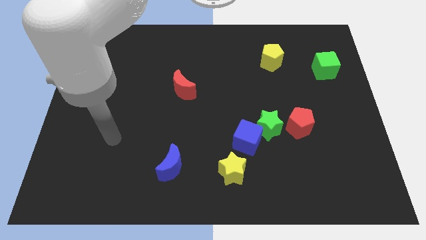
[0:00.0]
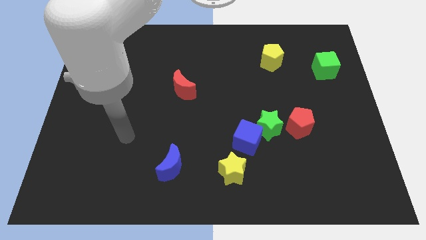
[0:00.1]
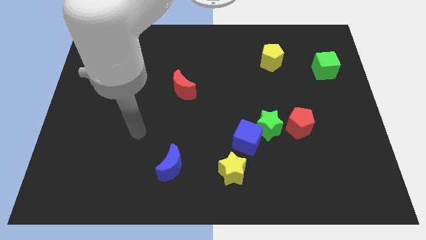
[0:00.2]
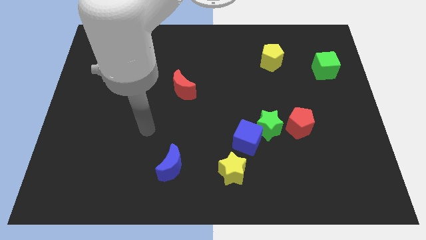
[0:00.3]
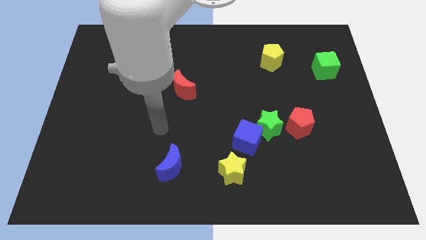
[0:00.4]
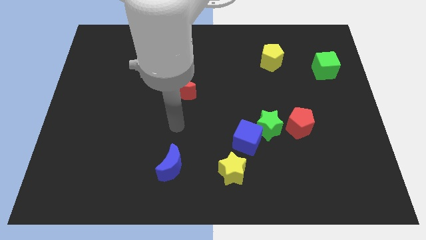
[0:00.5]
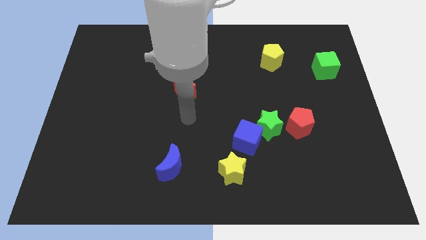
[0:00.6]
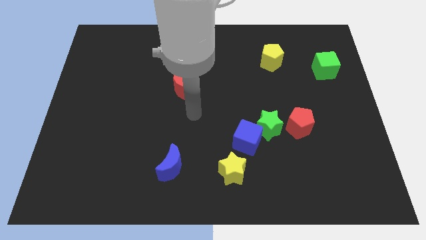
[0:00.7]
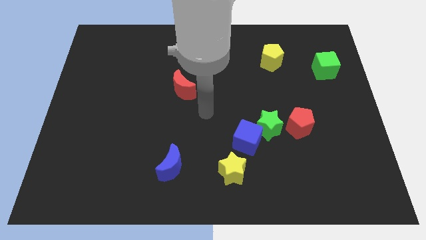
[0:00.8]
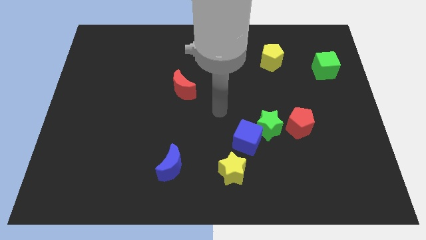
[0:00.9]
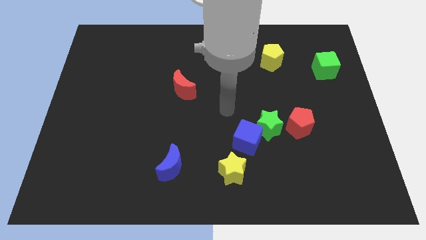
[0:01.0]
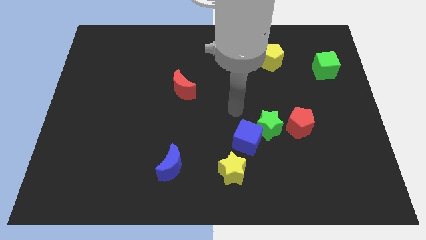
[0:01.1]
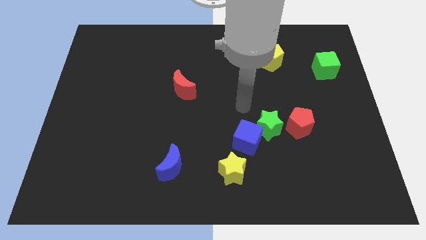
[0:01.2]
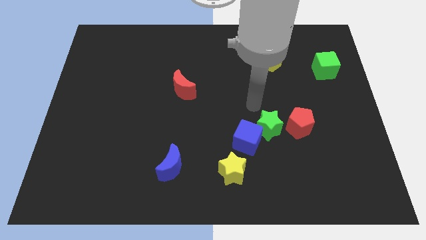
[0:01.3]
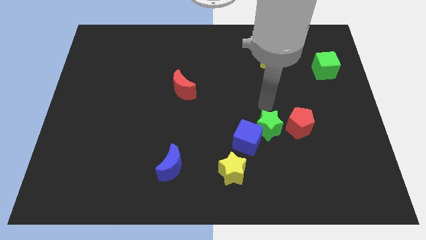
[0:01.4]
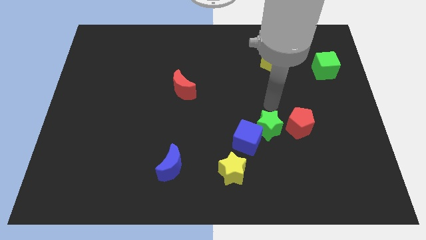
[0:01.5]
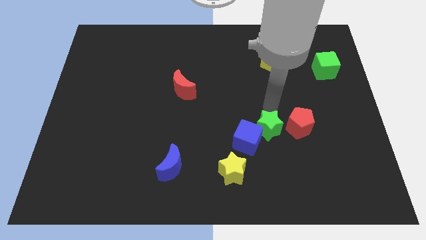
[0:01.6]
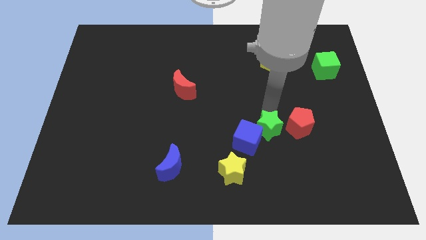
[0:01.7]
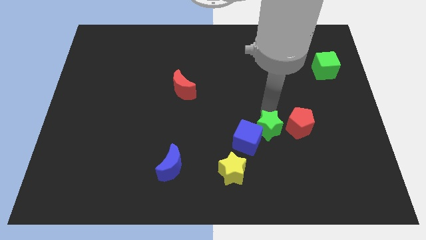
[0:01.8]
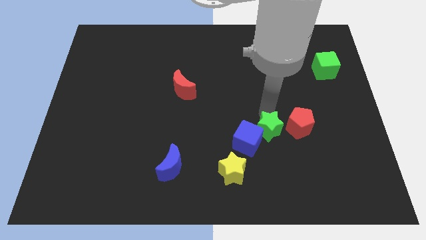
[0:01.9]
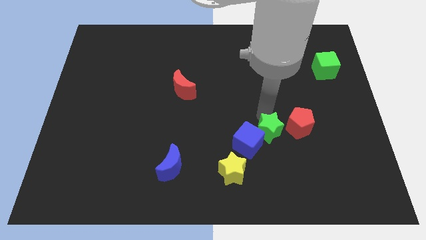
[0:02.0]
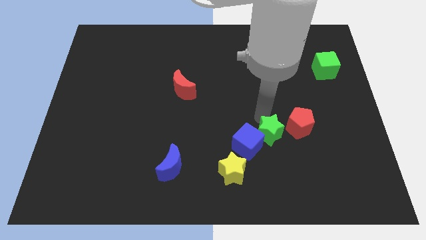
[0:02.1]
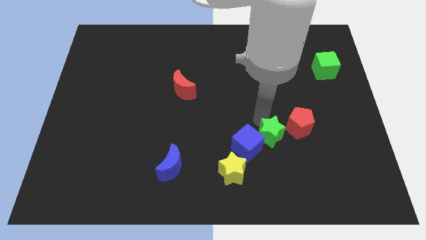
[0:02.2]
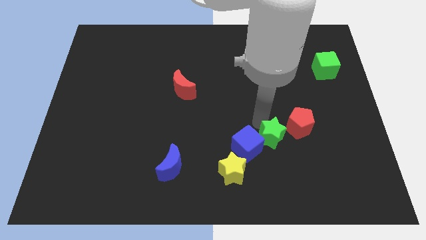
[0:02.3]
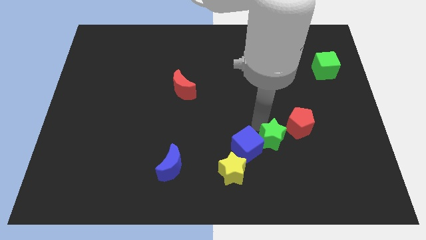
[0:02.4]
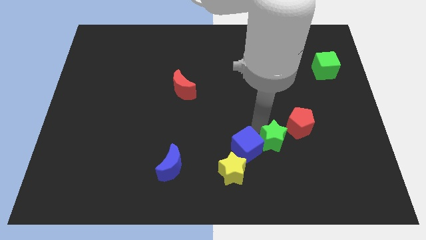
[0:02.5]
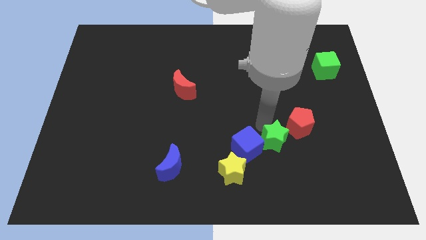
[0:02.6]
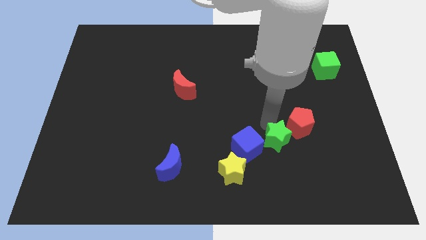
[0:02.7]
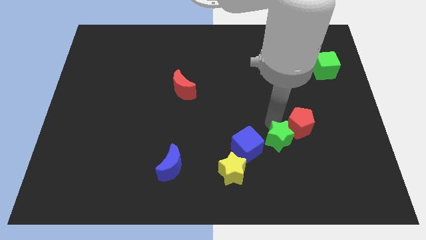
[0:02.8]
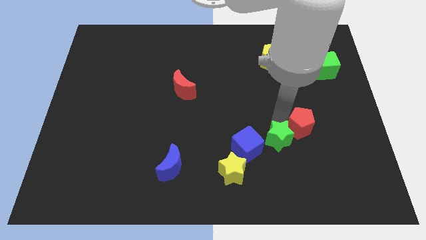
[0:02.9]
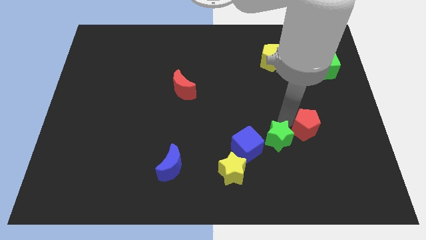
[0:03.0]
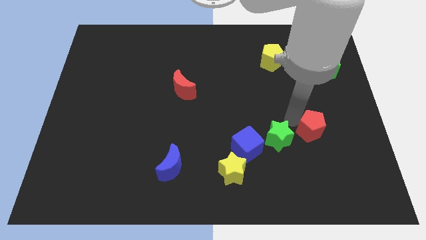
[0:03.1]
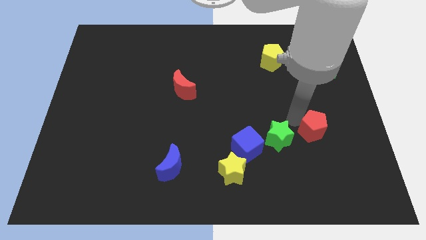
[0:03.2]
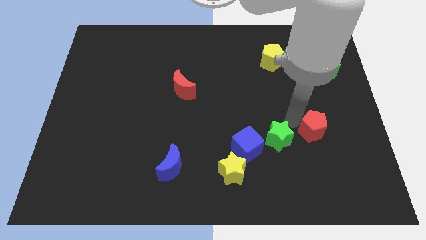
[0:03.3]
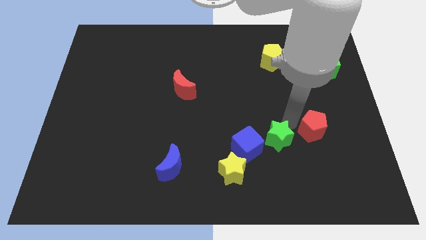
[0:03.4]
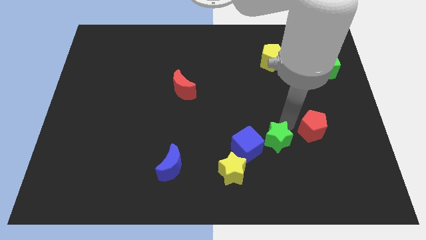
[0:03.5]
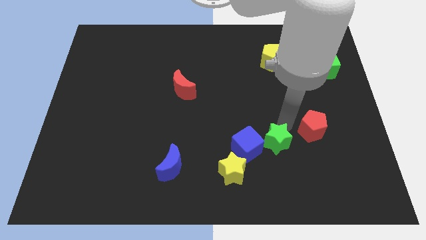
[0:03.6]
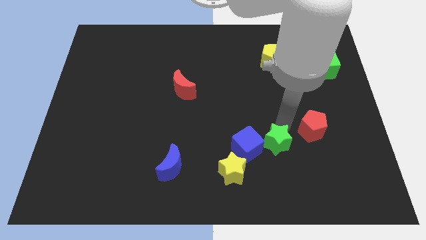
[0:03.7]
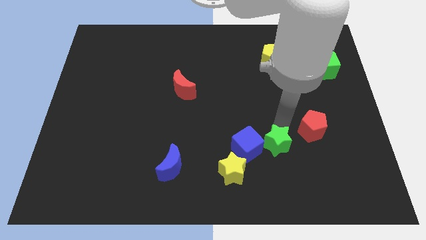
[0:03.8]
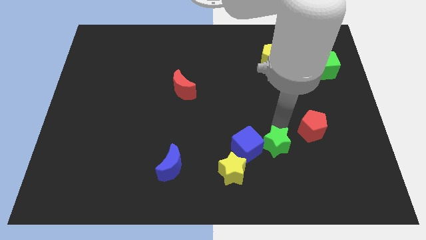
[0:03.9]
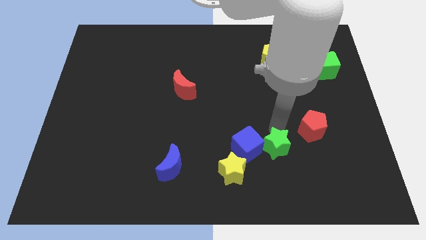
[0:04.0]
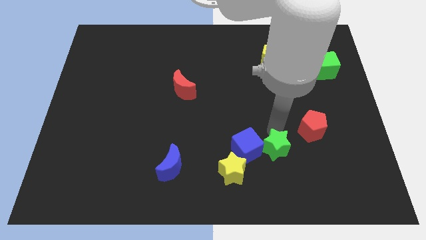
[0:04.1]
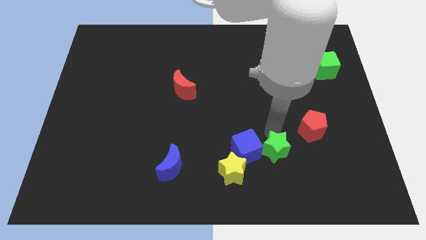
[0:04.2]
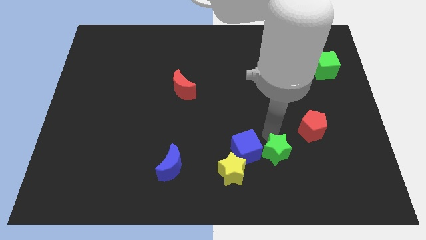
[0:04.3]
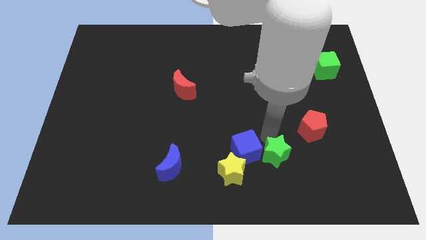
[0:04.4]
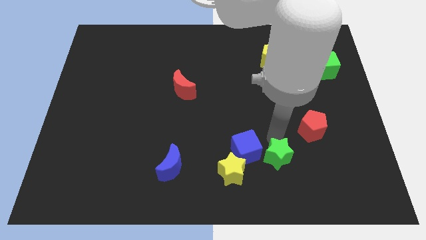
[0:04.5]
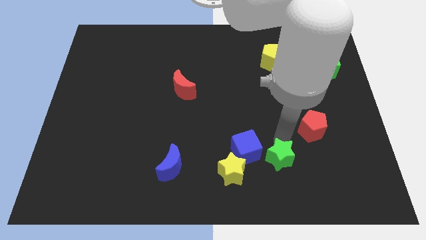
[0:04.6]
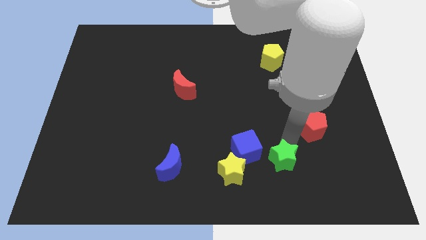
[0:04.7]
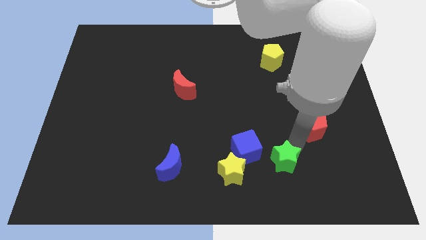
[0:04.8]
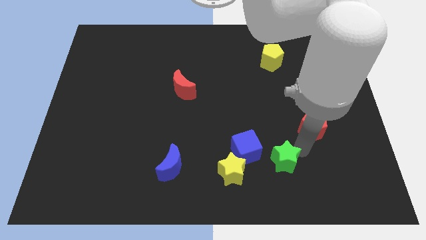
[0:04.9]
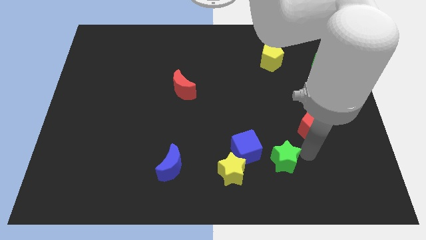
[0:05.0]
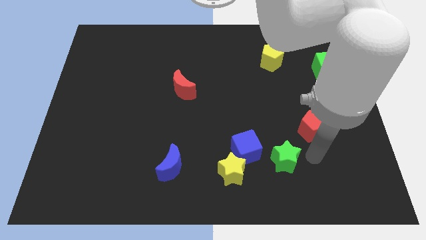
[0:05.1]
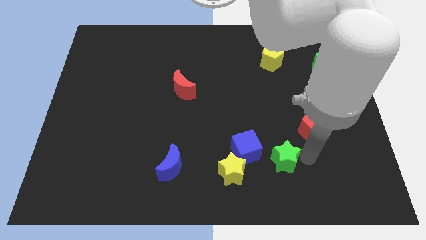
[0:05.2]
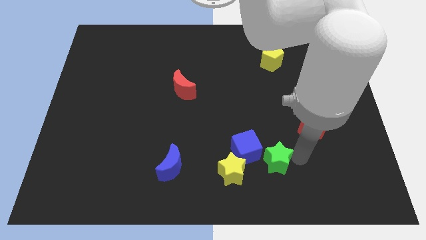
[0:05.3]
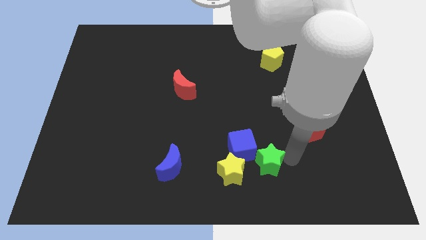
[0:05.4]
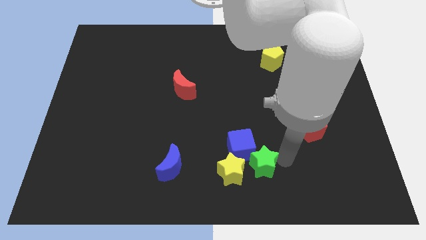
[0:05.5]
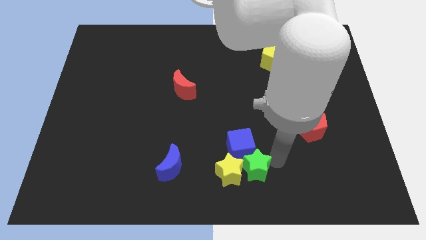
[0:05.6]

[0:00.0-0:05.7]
slide the green star towards the yellow star

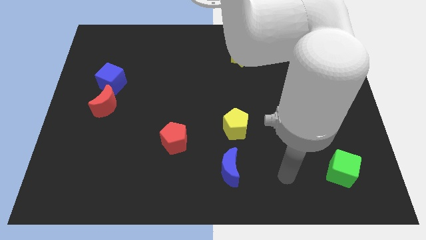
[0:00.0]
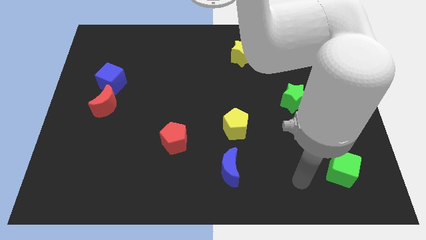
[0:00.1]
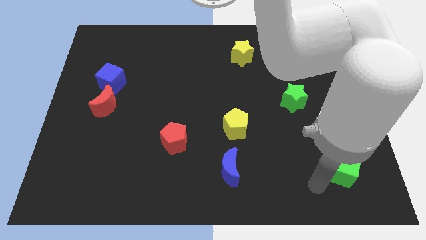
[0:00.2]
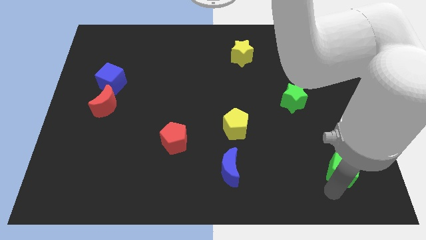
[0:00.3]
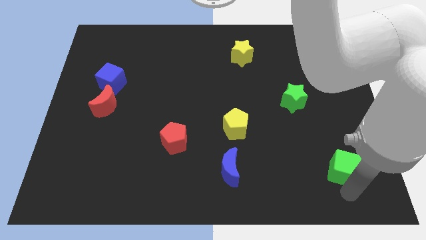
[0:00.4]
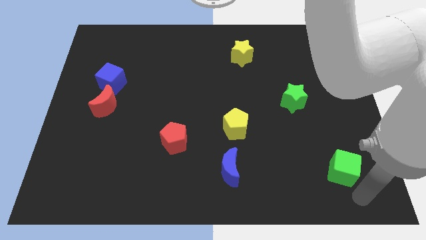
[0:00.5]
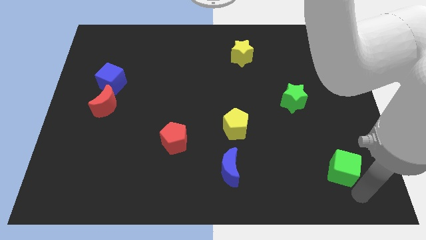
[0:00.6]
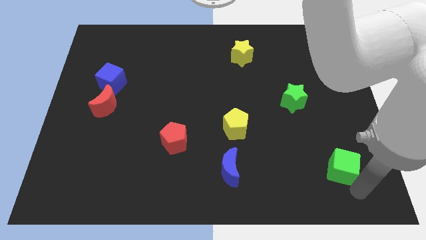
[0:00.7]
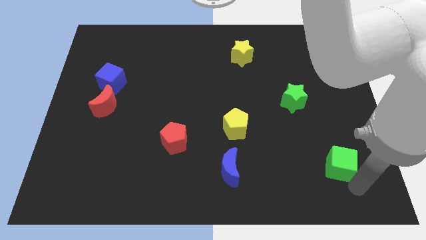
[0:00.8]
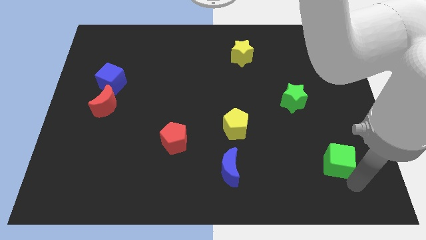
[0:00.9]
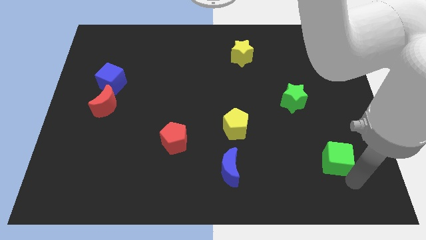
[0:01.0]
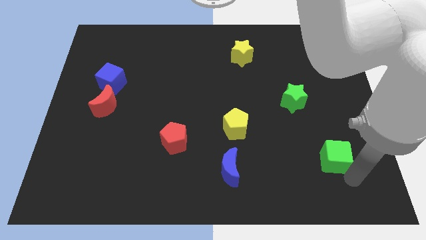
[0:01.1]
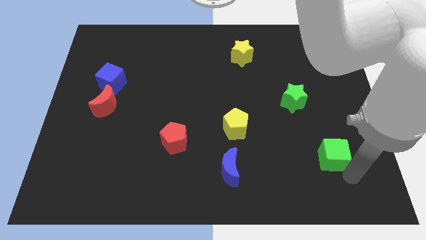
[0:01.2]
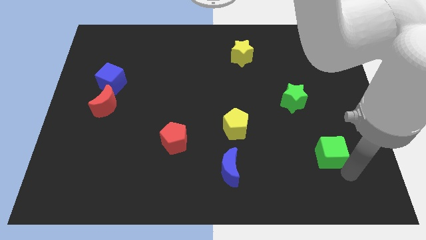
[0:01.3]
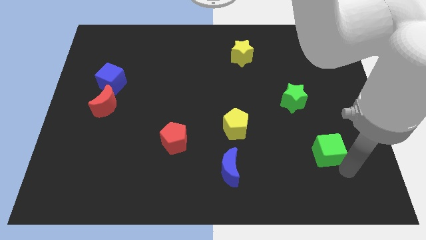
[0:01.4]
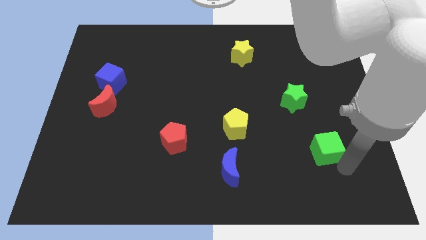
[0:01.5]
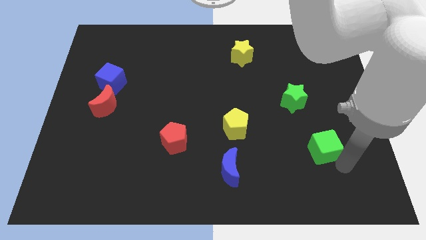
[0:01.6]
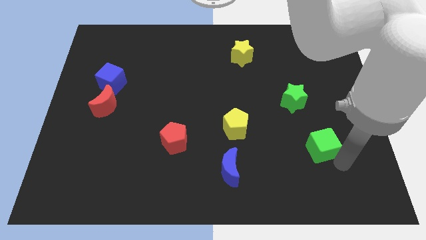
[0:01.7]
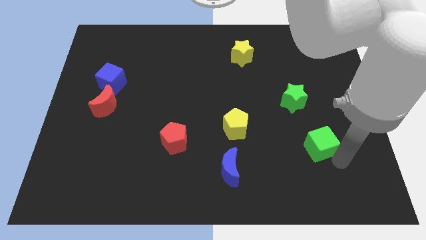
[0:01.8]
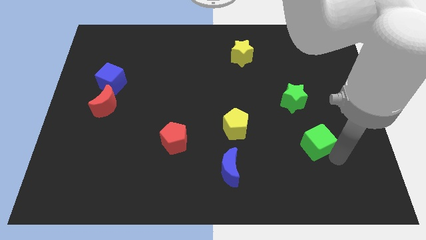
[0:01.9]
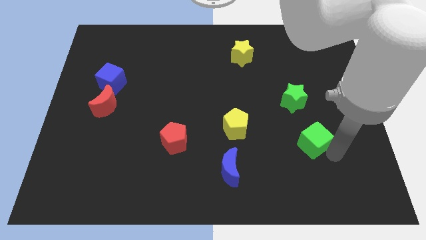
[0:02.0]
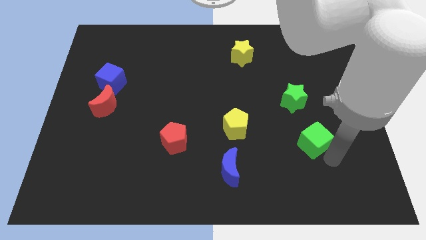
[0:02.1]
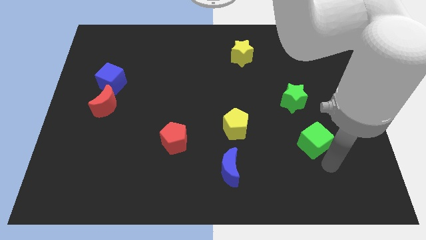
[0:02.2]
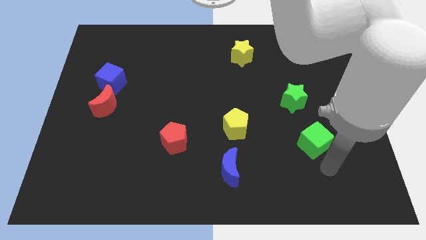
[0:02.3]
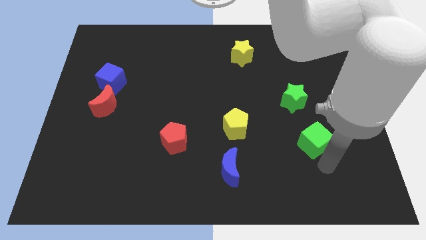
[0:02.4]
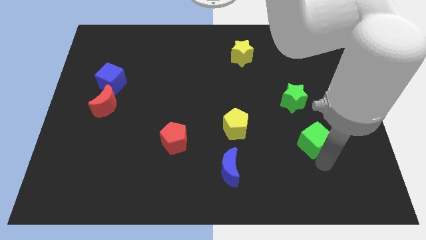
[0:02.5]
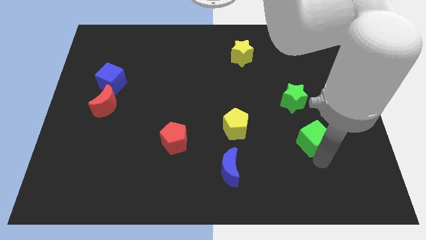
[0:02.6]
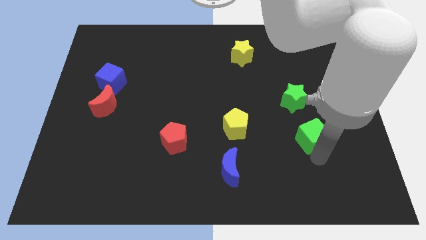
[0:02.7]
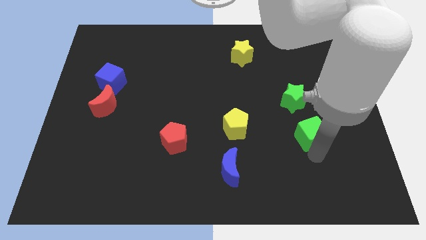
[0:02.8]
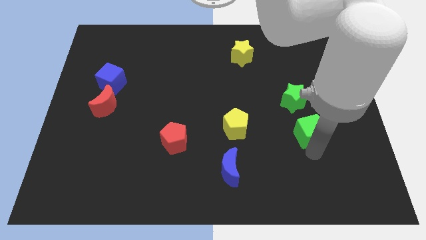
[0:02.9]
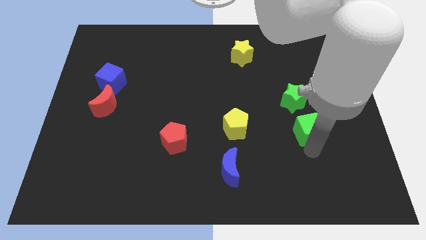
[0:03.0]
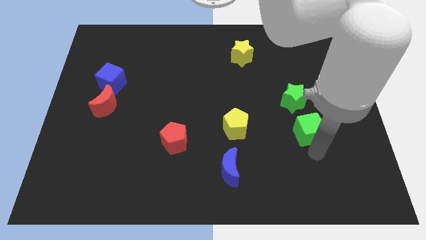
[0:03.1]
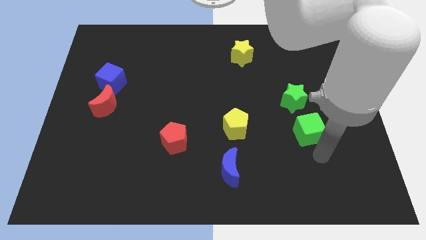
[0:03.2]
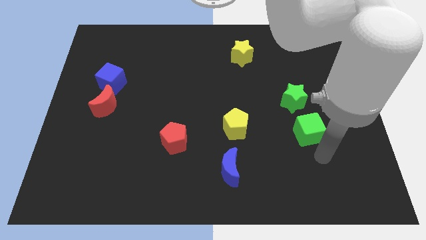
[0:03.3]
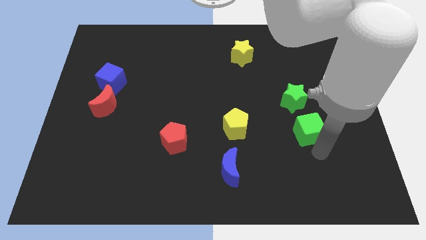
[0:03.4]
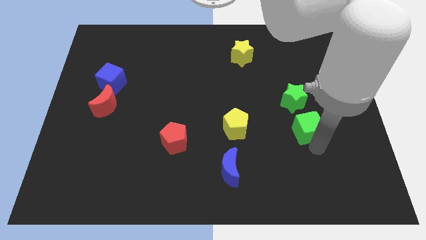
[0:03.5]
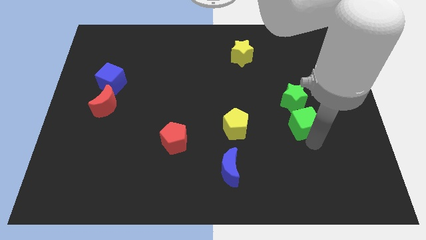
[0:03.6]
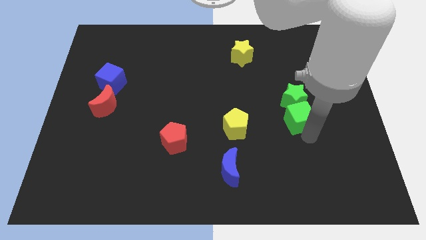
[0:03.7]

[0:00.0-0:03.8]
put the green cube next to the green star
